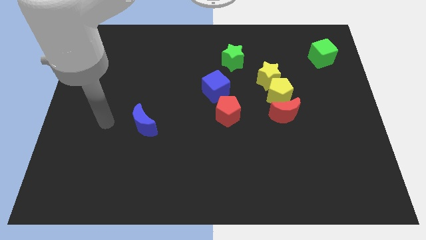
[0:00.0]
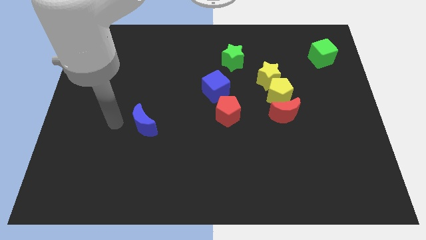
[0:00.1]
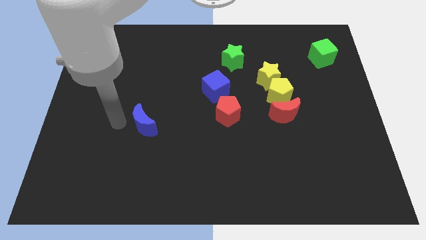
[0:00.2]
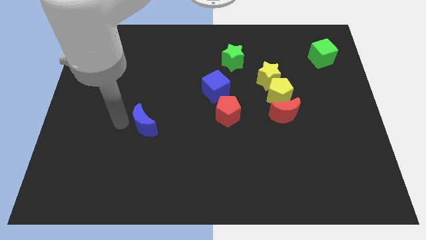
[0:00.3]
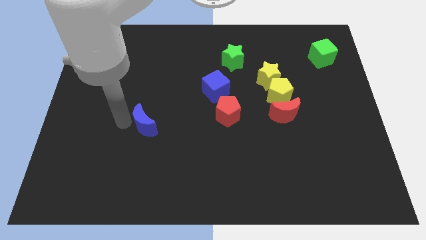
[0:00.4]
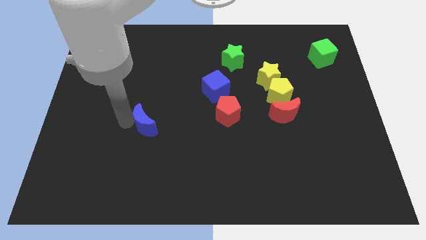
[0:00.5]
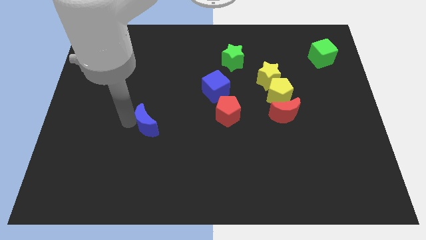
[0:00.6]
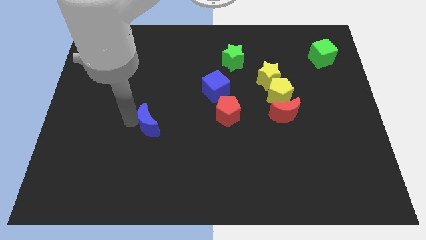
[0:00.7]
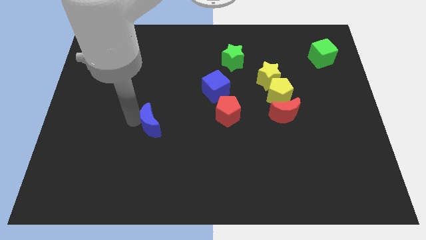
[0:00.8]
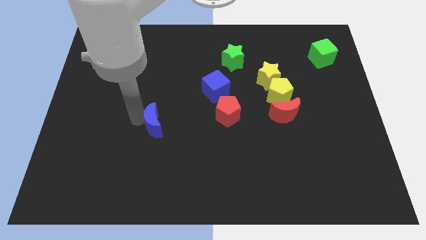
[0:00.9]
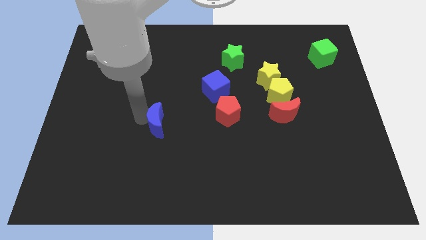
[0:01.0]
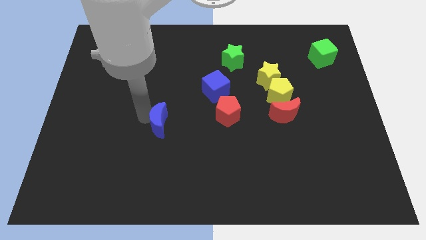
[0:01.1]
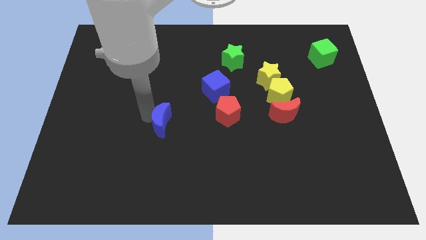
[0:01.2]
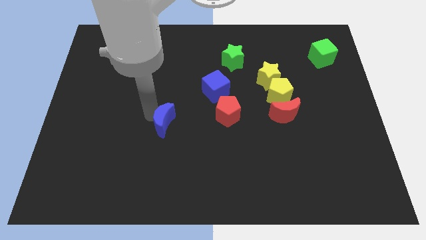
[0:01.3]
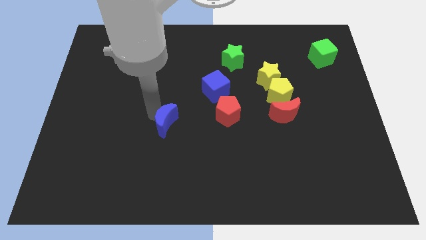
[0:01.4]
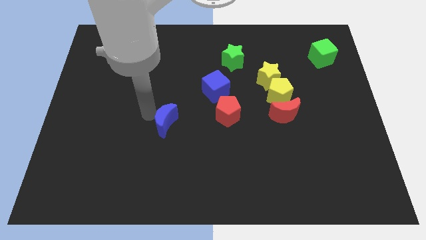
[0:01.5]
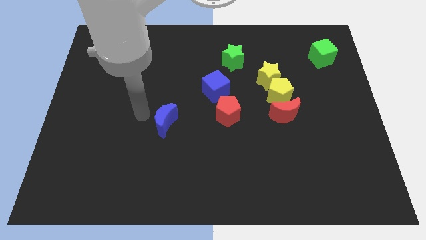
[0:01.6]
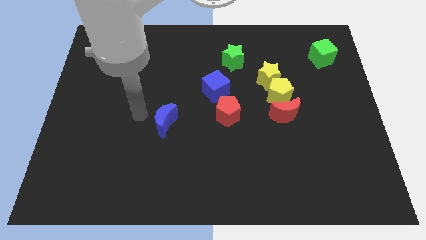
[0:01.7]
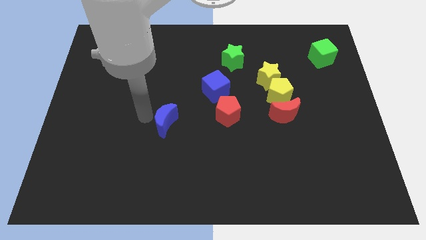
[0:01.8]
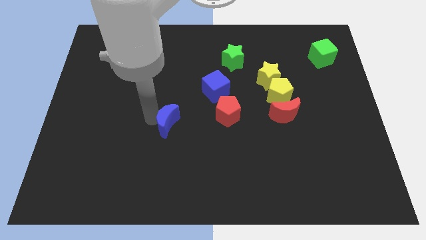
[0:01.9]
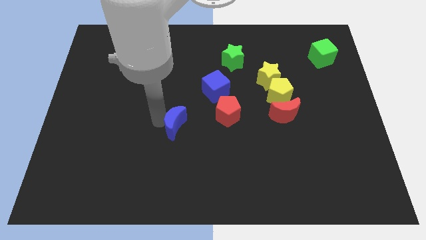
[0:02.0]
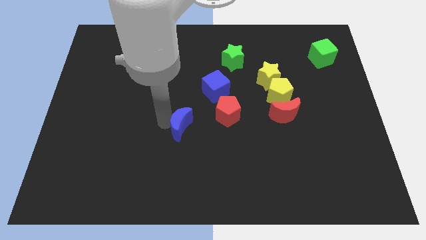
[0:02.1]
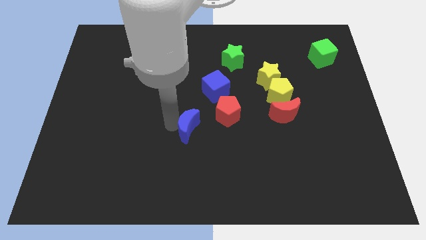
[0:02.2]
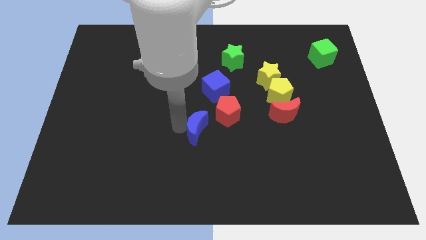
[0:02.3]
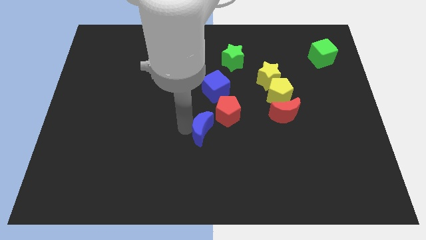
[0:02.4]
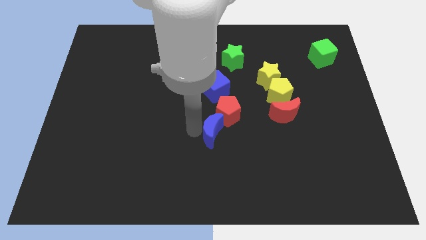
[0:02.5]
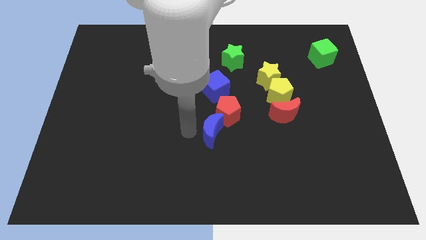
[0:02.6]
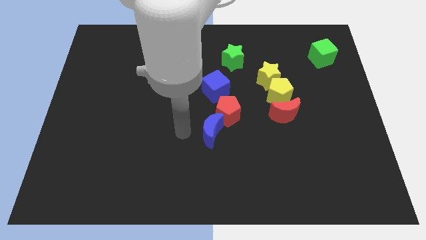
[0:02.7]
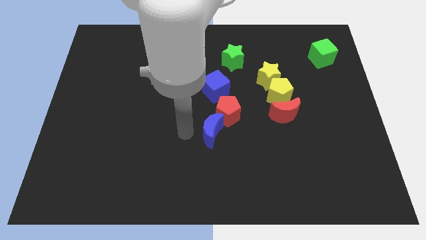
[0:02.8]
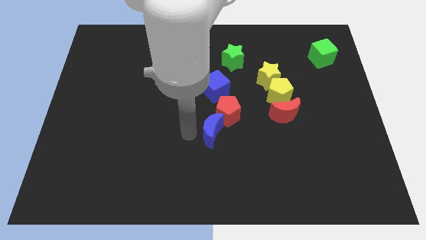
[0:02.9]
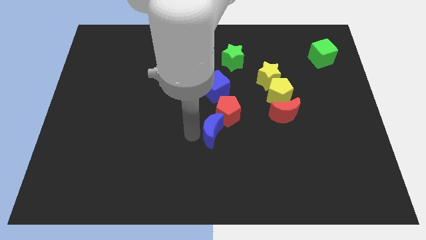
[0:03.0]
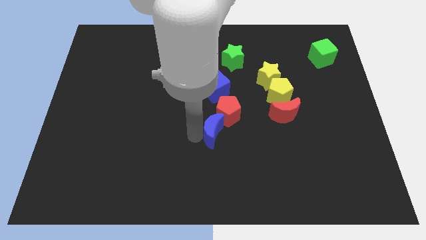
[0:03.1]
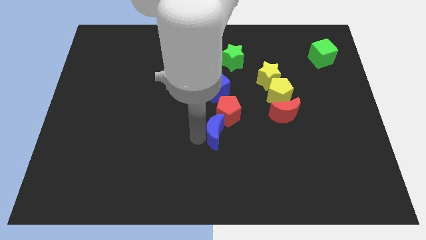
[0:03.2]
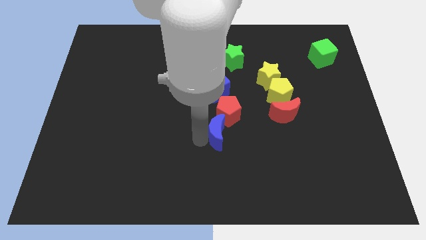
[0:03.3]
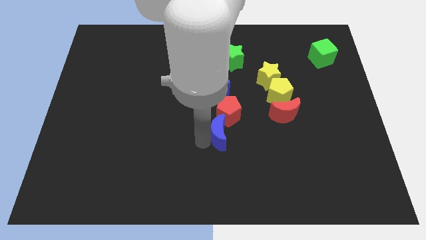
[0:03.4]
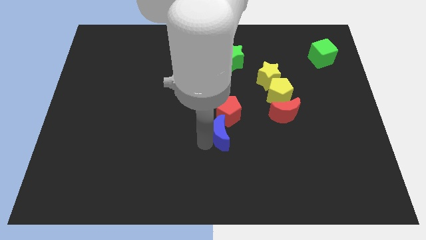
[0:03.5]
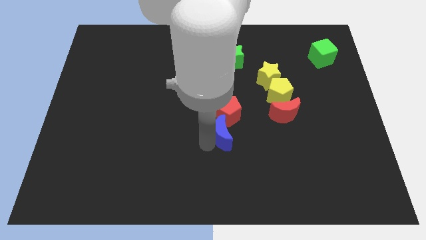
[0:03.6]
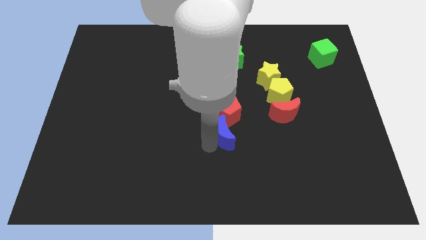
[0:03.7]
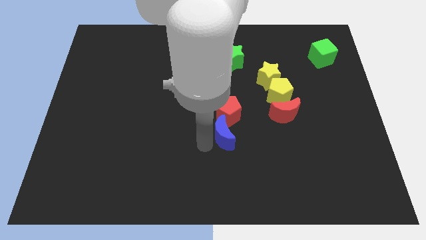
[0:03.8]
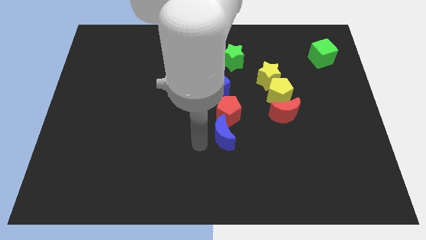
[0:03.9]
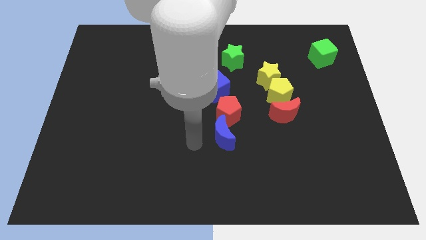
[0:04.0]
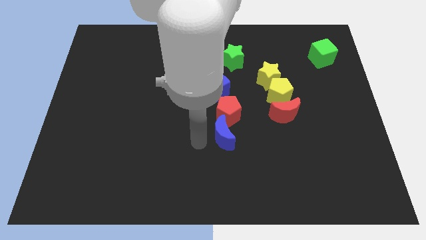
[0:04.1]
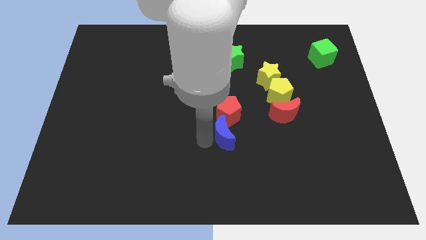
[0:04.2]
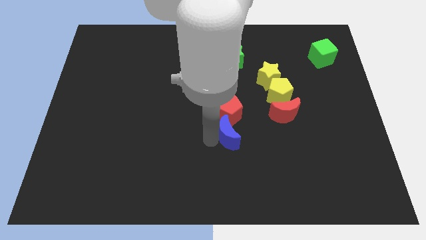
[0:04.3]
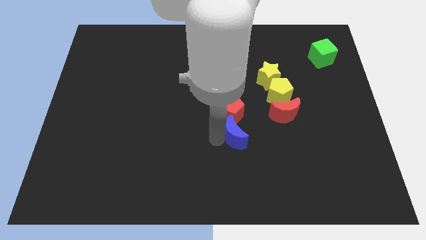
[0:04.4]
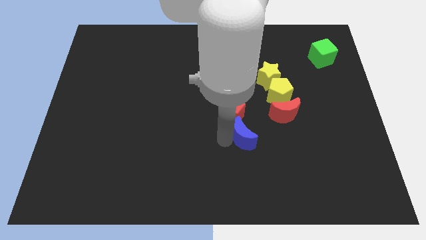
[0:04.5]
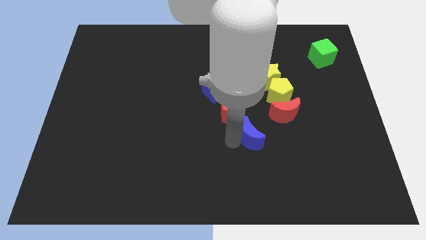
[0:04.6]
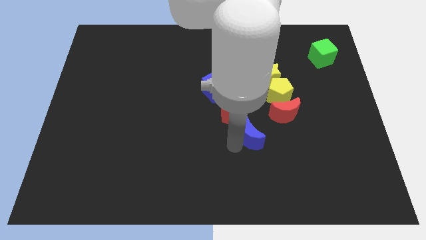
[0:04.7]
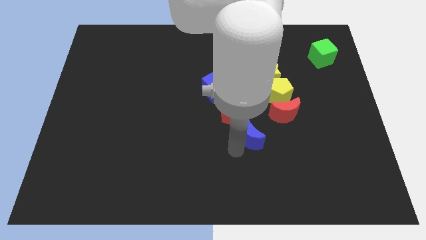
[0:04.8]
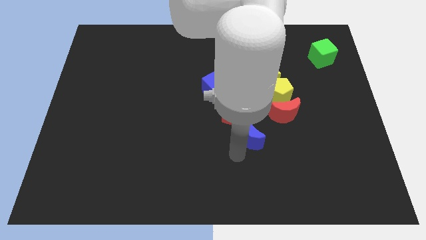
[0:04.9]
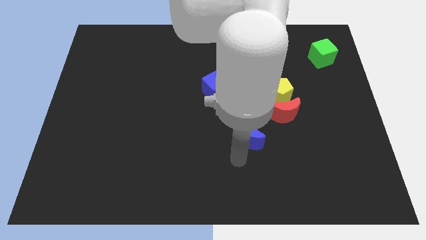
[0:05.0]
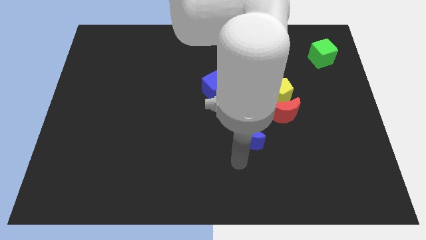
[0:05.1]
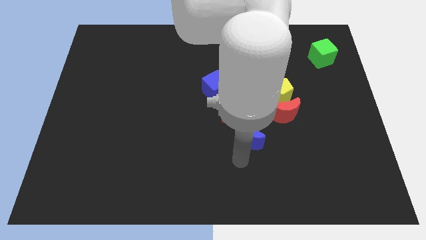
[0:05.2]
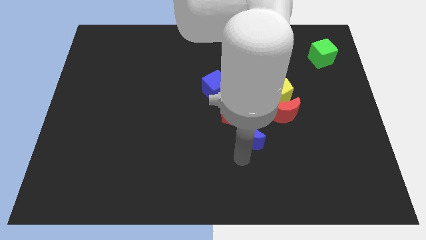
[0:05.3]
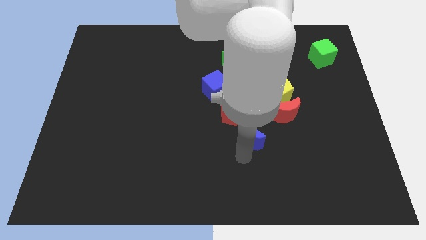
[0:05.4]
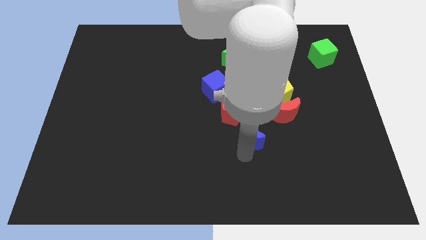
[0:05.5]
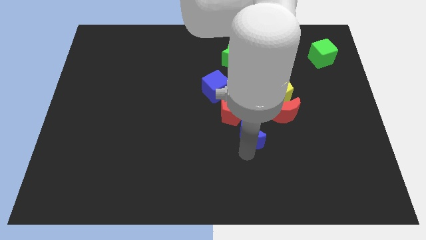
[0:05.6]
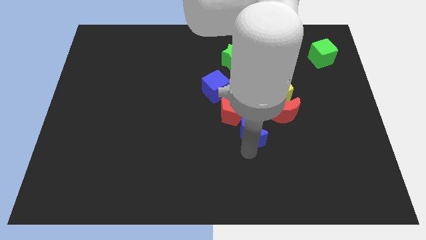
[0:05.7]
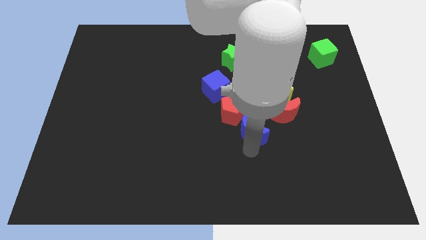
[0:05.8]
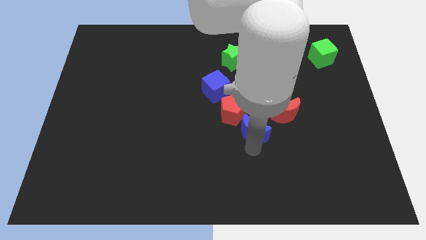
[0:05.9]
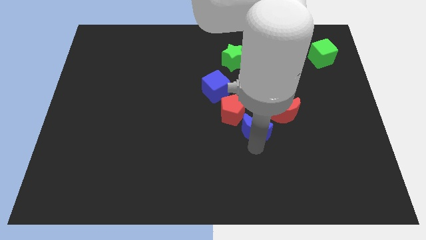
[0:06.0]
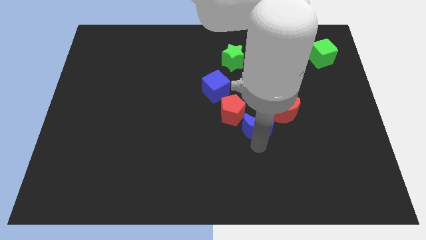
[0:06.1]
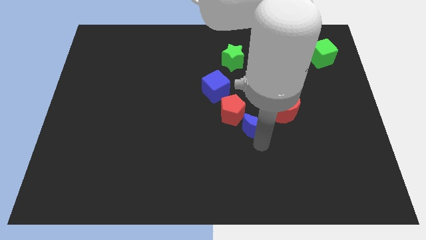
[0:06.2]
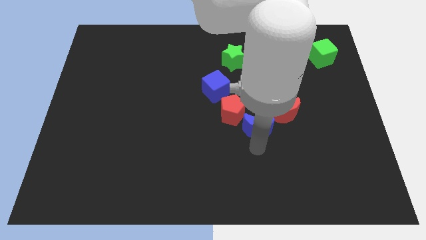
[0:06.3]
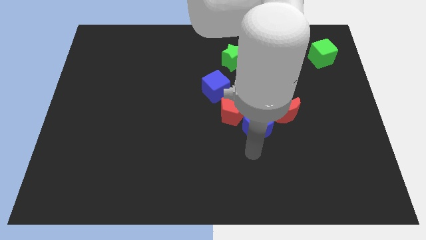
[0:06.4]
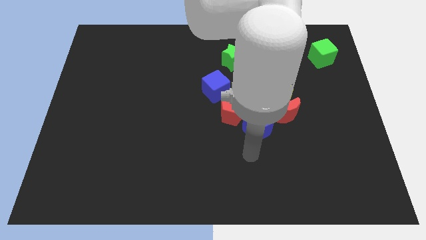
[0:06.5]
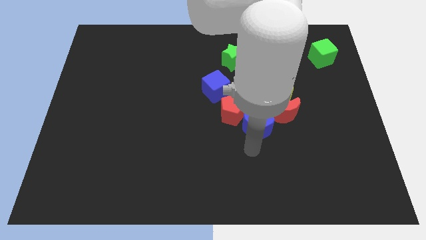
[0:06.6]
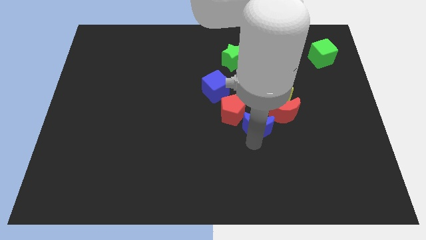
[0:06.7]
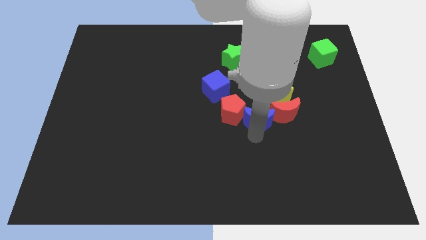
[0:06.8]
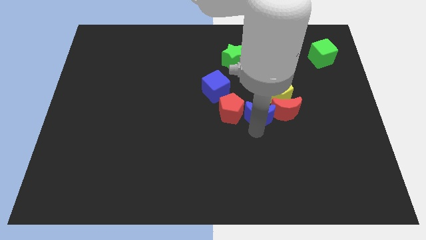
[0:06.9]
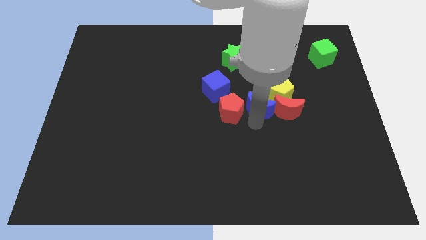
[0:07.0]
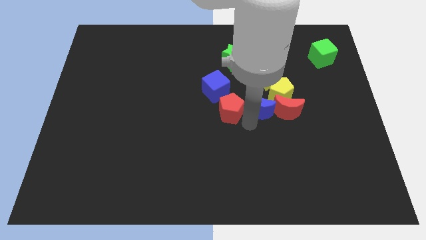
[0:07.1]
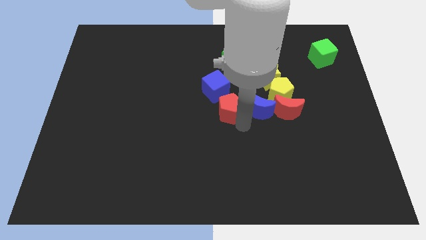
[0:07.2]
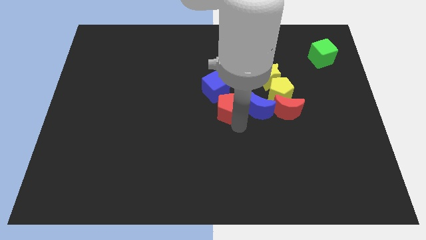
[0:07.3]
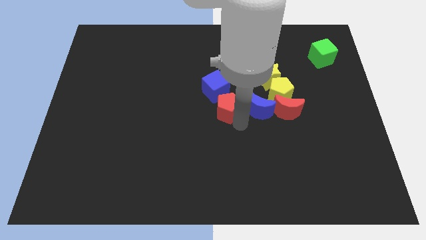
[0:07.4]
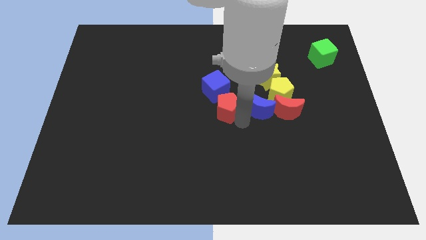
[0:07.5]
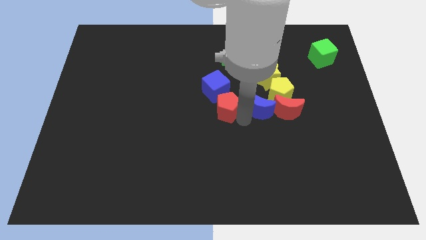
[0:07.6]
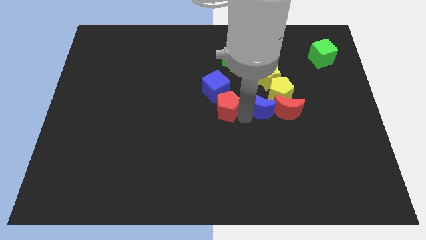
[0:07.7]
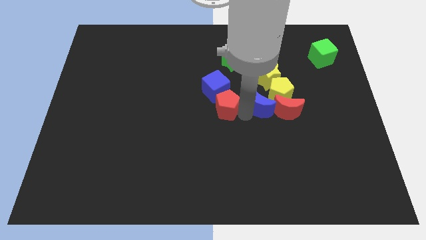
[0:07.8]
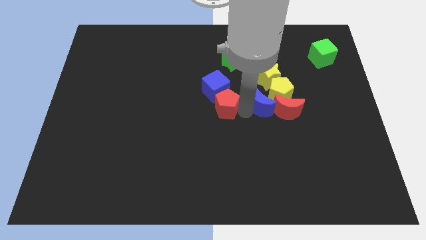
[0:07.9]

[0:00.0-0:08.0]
push the blue moon towards the yellow pentagon
